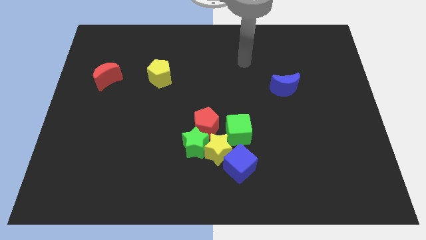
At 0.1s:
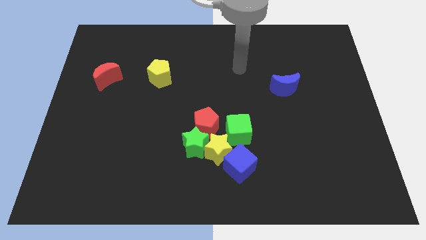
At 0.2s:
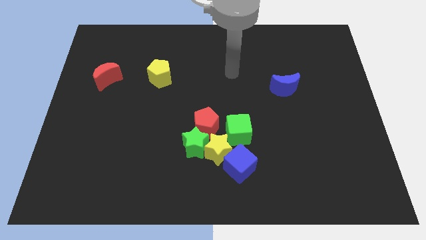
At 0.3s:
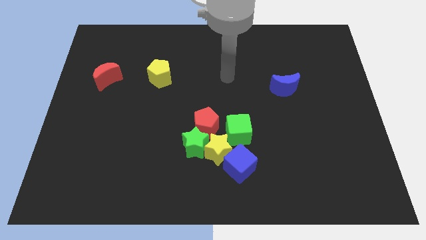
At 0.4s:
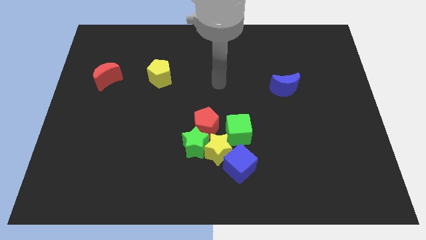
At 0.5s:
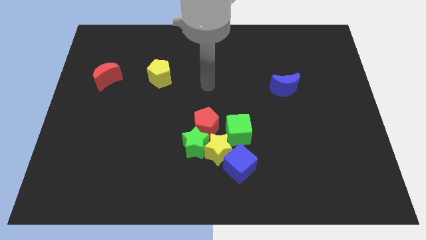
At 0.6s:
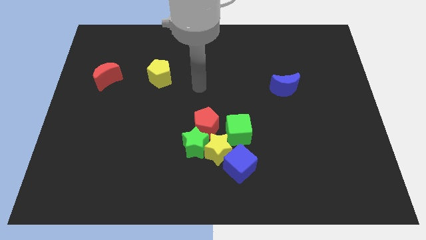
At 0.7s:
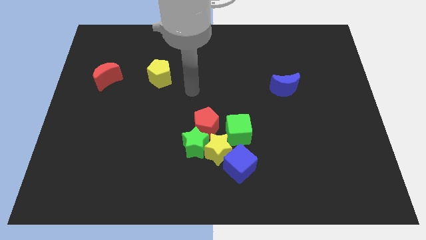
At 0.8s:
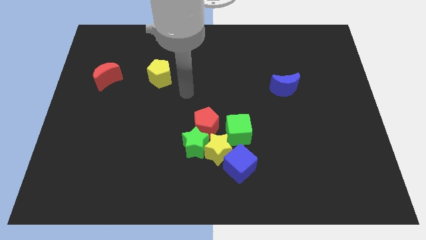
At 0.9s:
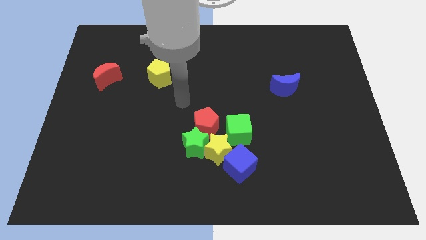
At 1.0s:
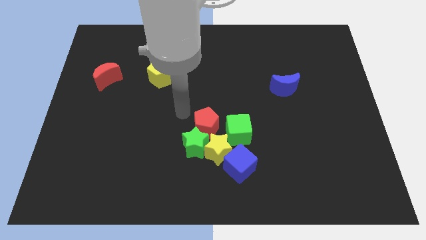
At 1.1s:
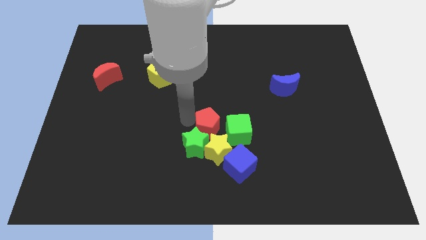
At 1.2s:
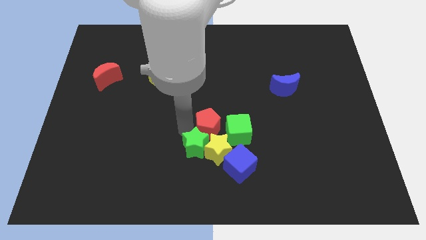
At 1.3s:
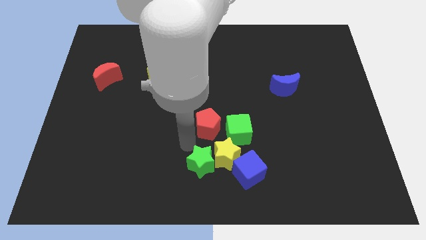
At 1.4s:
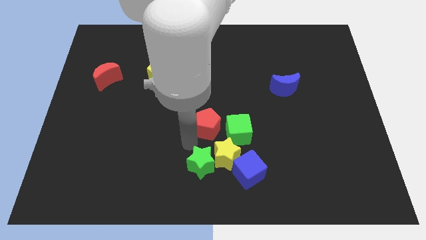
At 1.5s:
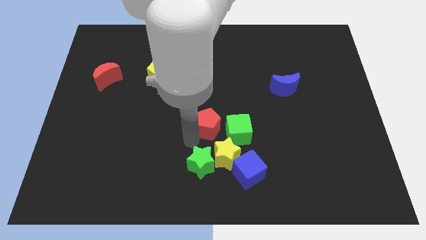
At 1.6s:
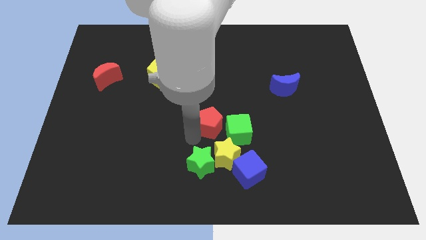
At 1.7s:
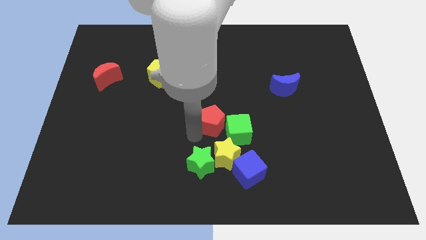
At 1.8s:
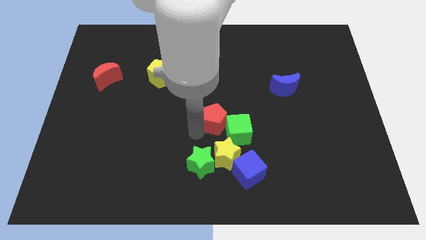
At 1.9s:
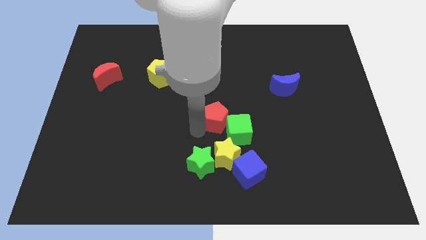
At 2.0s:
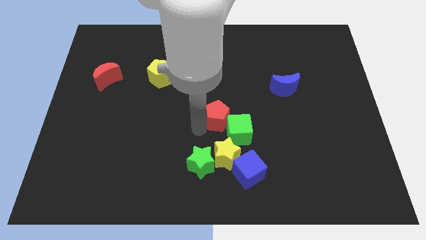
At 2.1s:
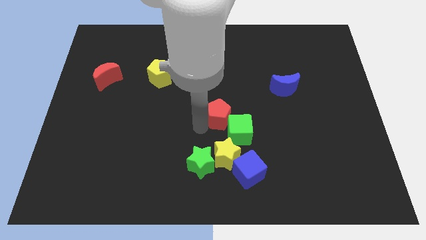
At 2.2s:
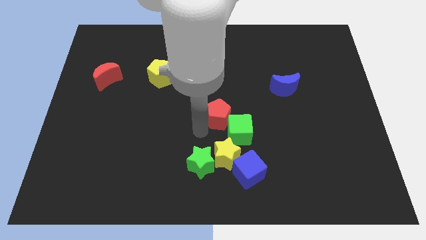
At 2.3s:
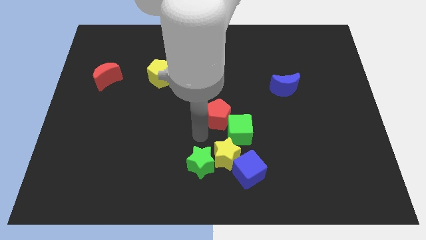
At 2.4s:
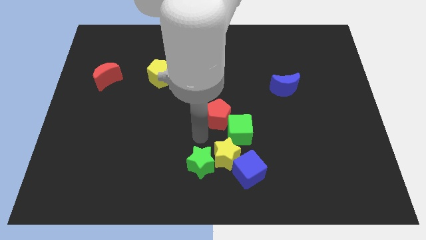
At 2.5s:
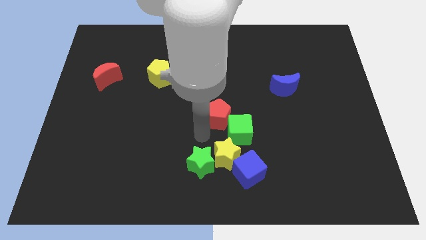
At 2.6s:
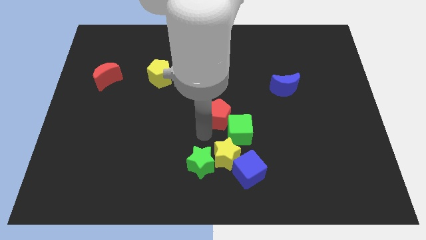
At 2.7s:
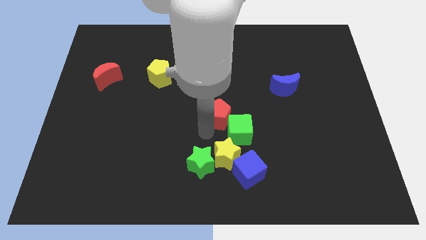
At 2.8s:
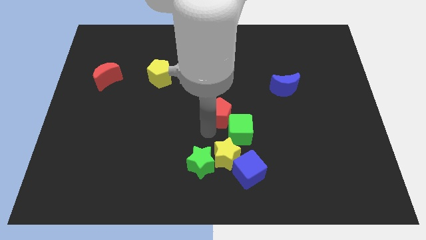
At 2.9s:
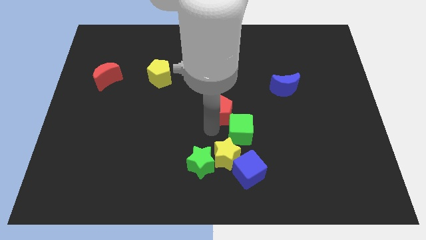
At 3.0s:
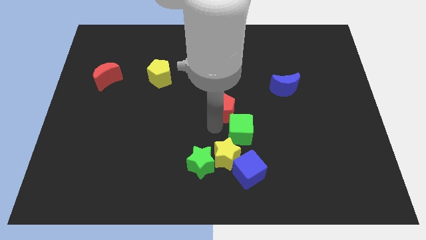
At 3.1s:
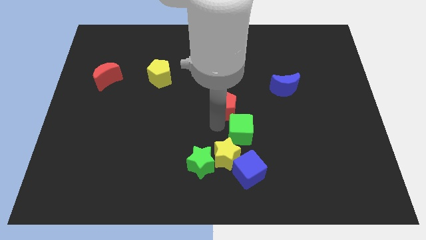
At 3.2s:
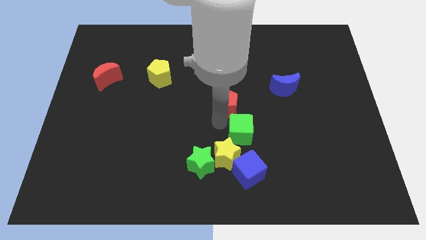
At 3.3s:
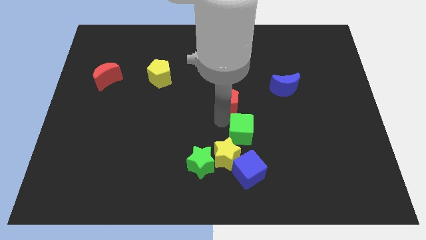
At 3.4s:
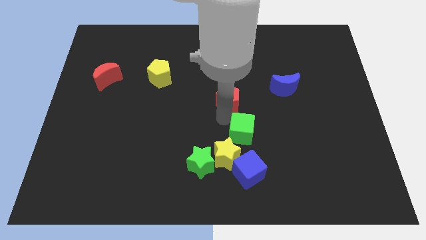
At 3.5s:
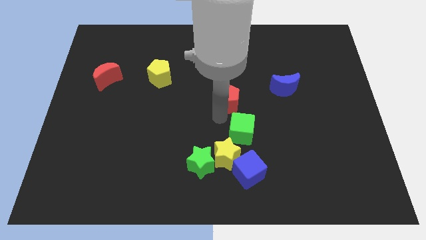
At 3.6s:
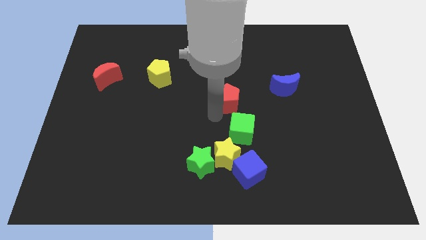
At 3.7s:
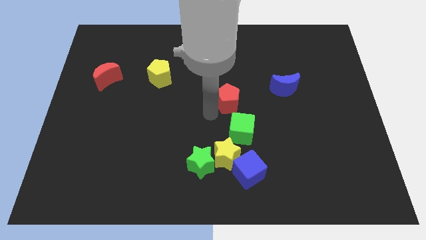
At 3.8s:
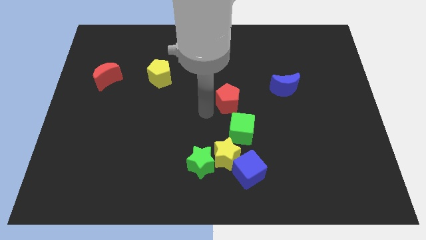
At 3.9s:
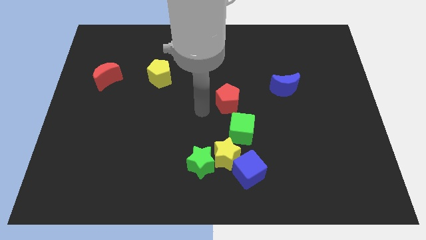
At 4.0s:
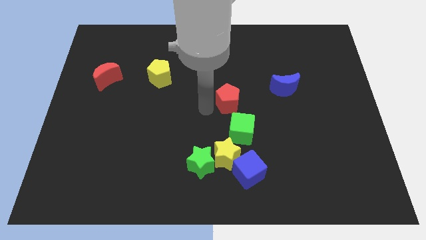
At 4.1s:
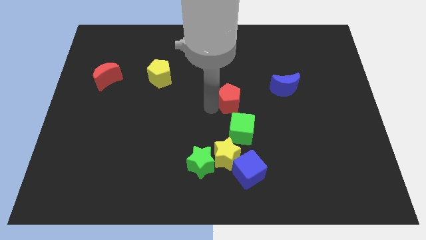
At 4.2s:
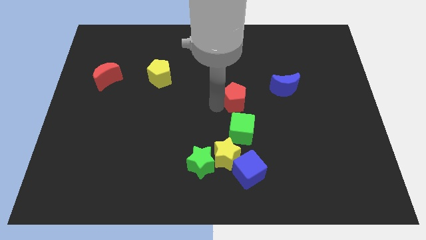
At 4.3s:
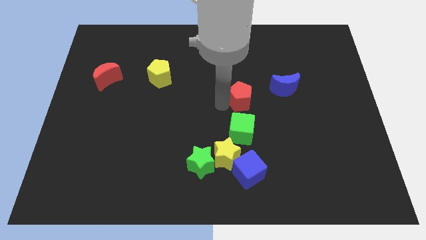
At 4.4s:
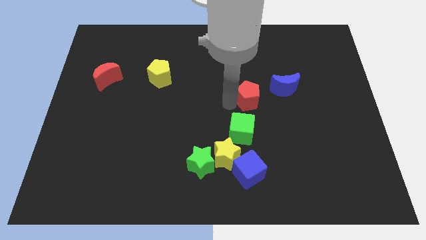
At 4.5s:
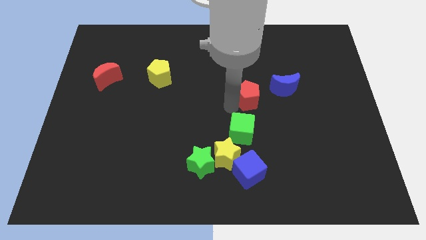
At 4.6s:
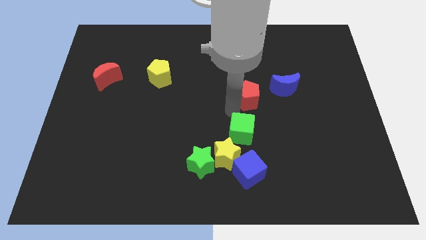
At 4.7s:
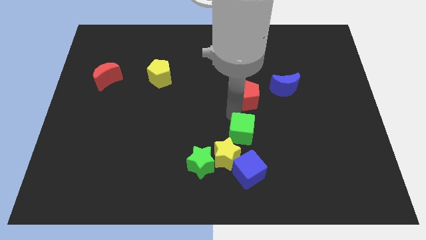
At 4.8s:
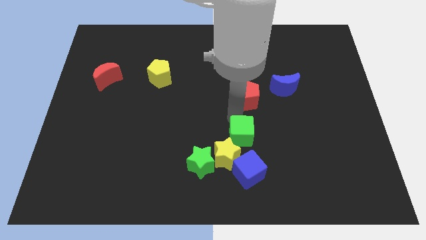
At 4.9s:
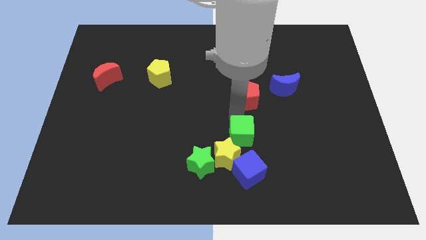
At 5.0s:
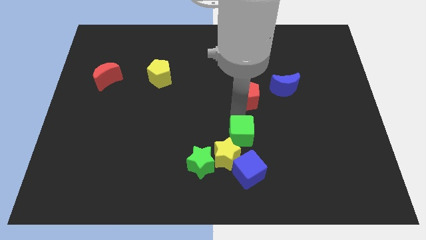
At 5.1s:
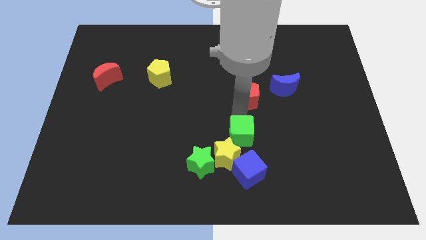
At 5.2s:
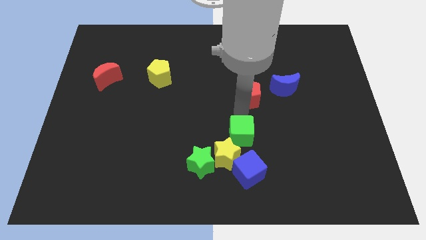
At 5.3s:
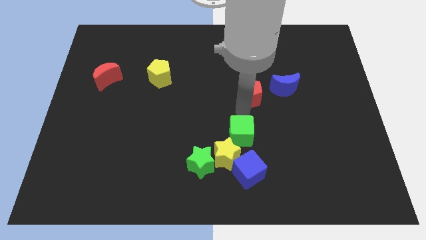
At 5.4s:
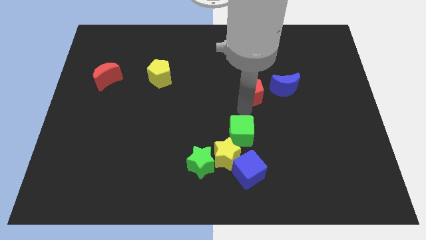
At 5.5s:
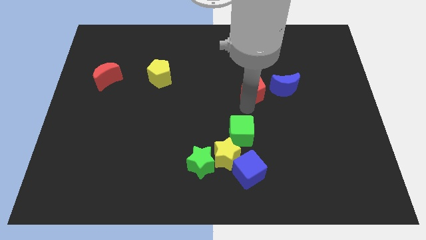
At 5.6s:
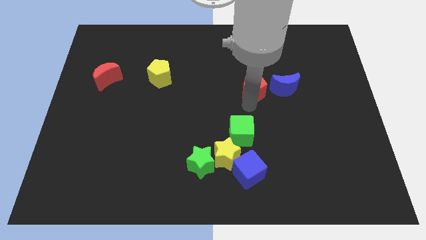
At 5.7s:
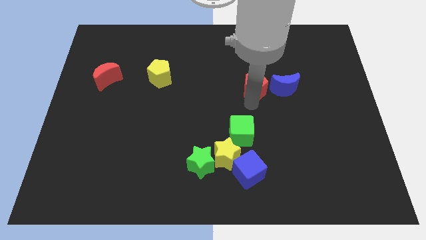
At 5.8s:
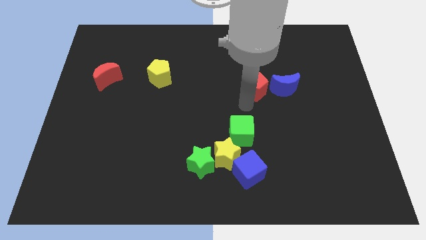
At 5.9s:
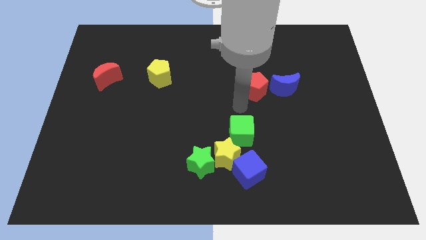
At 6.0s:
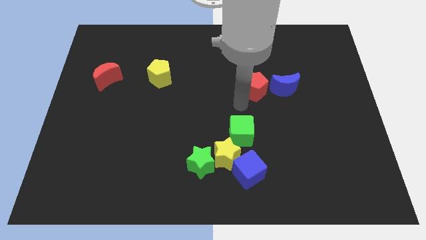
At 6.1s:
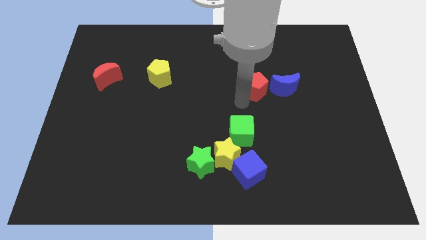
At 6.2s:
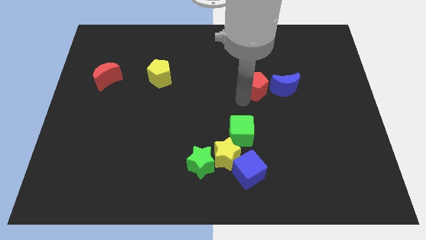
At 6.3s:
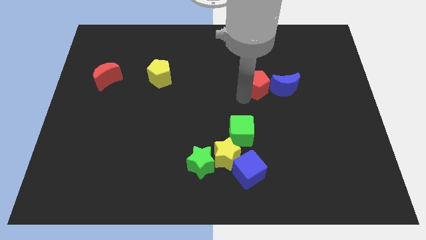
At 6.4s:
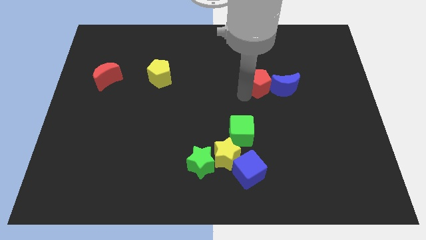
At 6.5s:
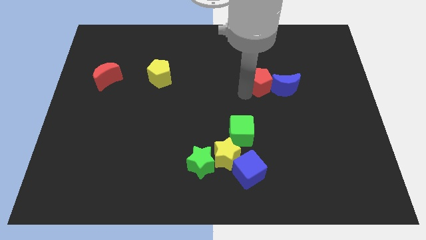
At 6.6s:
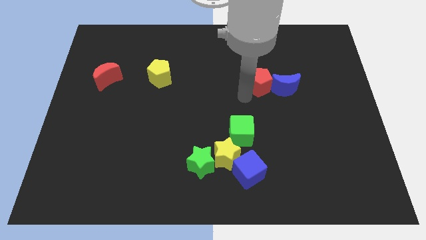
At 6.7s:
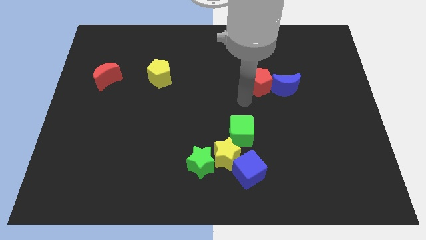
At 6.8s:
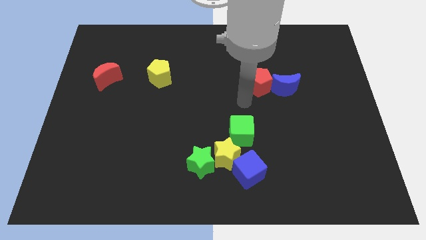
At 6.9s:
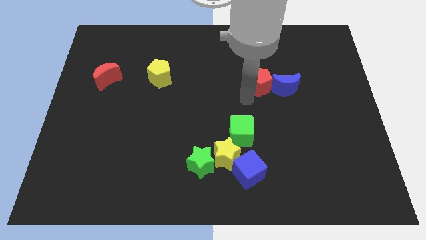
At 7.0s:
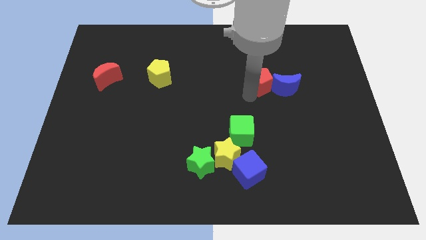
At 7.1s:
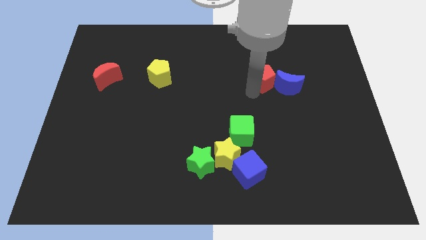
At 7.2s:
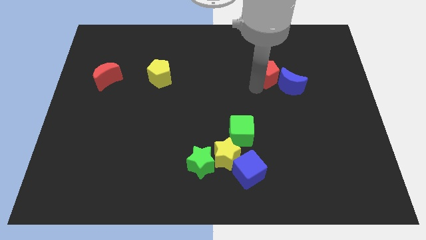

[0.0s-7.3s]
slide the red pentagon up and to the right diagonally

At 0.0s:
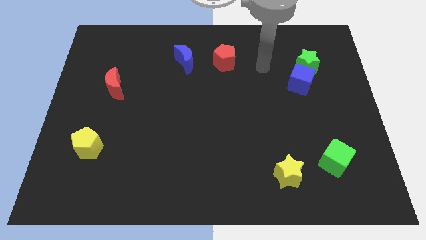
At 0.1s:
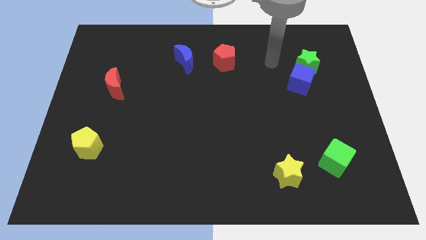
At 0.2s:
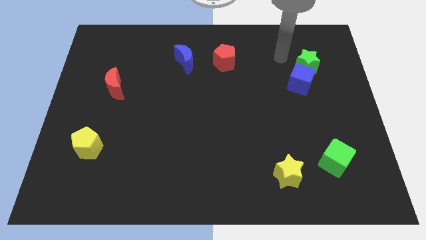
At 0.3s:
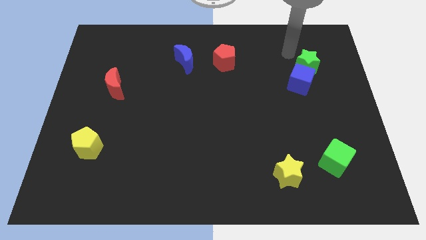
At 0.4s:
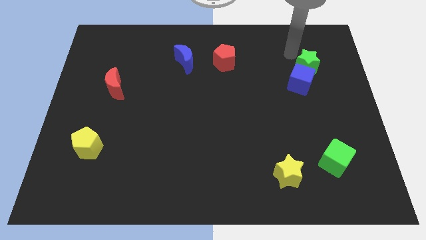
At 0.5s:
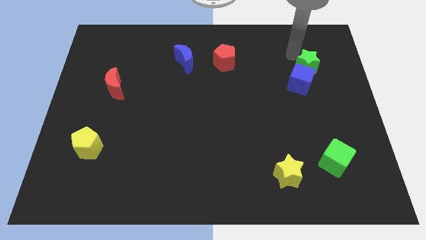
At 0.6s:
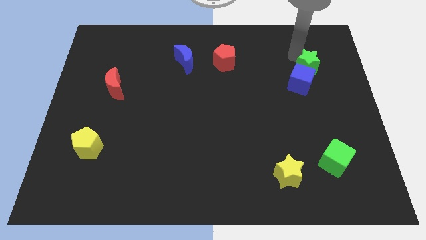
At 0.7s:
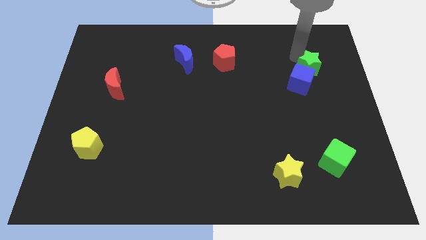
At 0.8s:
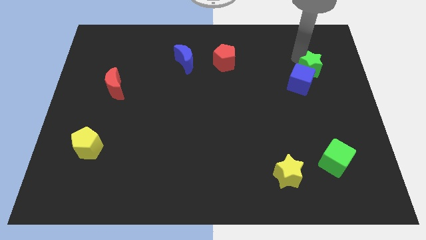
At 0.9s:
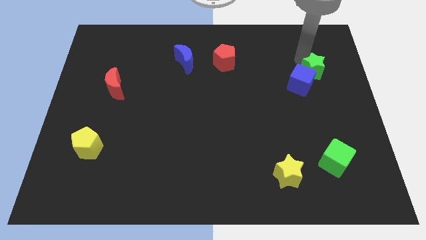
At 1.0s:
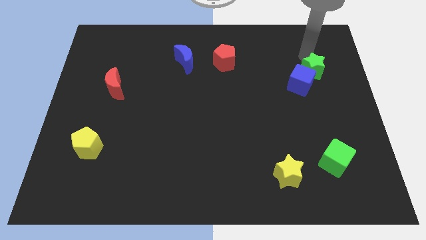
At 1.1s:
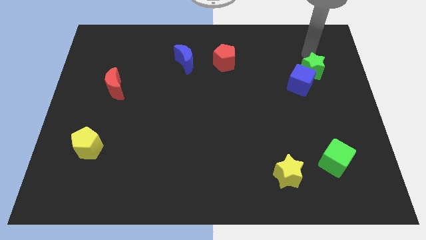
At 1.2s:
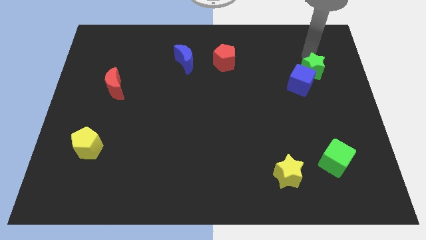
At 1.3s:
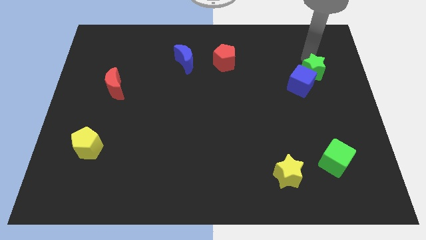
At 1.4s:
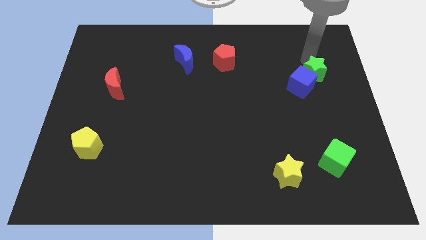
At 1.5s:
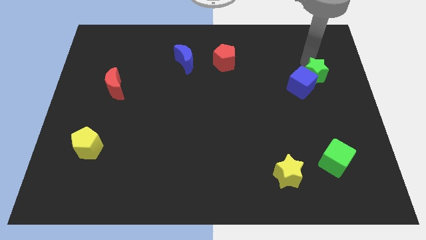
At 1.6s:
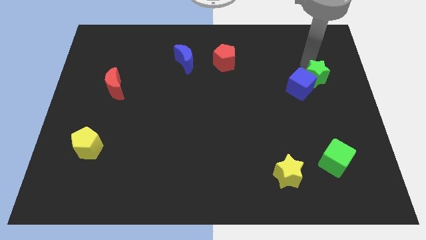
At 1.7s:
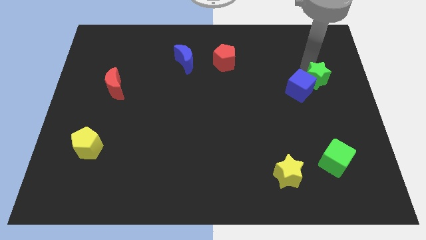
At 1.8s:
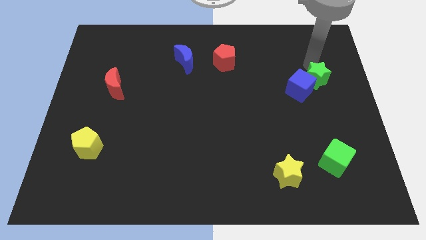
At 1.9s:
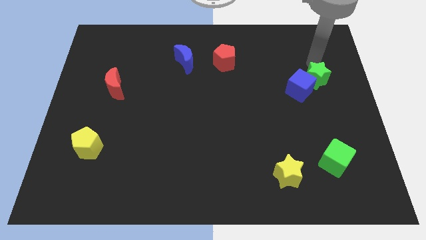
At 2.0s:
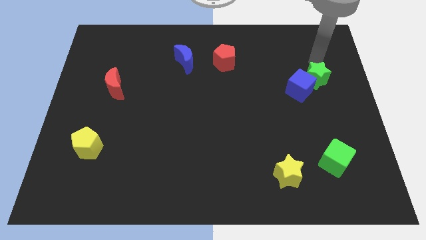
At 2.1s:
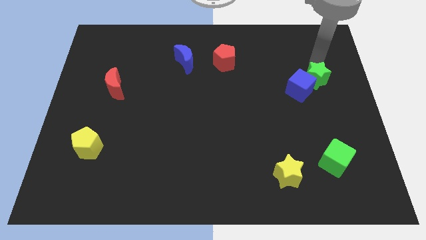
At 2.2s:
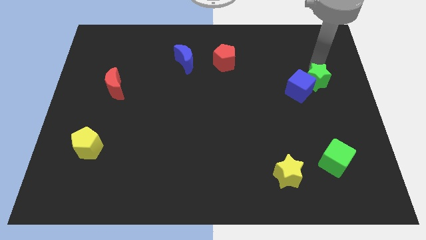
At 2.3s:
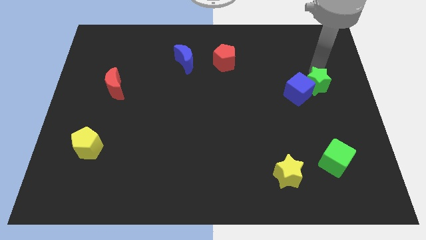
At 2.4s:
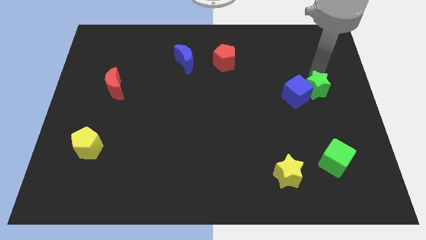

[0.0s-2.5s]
slightly slide the green star down
